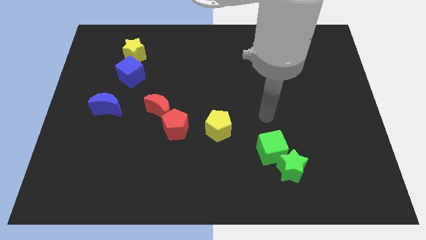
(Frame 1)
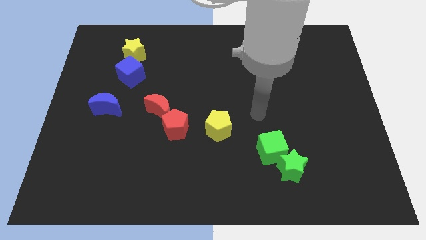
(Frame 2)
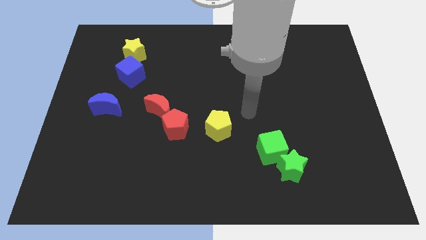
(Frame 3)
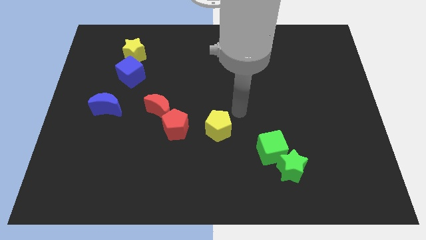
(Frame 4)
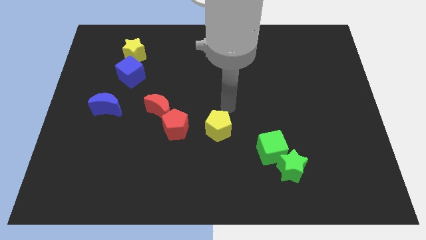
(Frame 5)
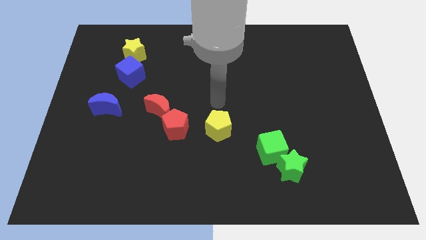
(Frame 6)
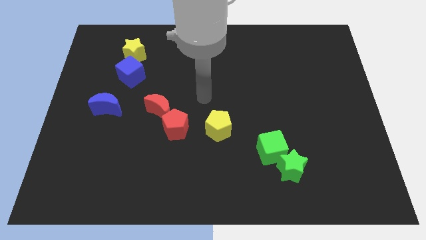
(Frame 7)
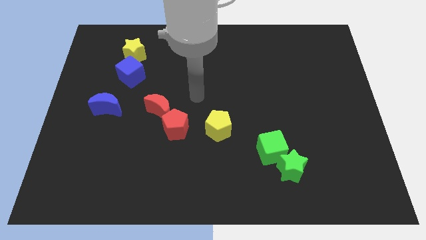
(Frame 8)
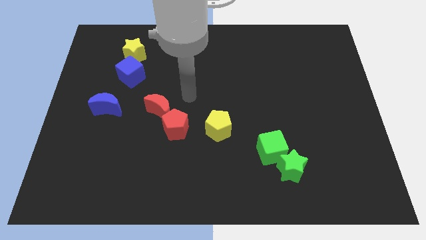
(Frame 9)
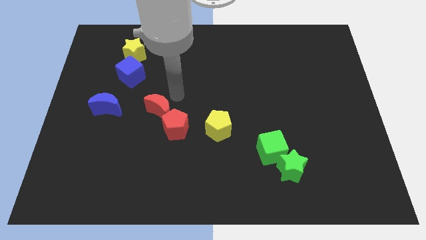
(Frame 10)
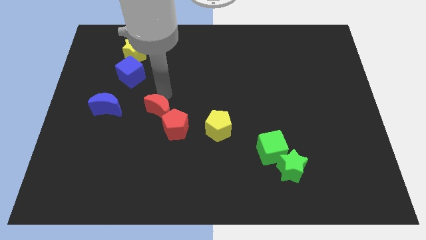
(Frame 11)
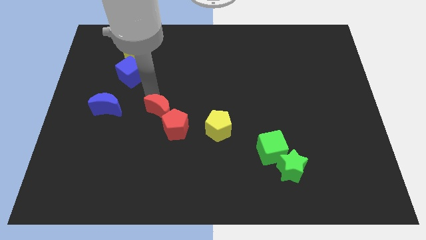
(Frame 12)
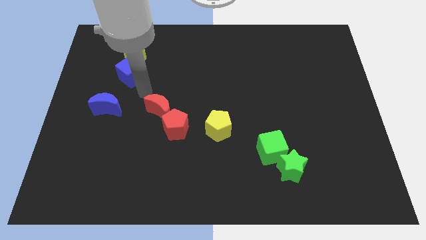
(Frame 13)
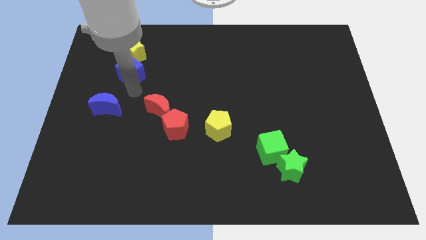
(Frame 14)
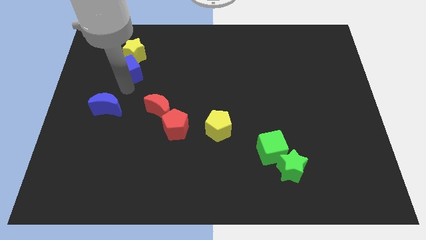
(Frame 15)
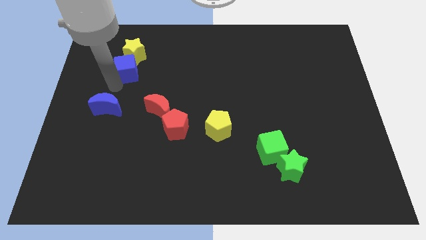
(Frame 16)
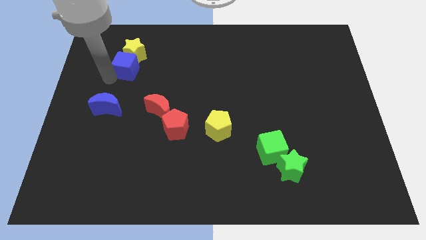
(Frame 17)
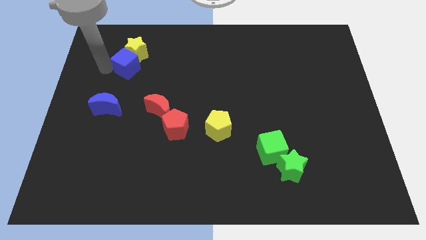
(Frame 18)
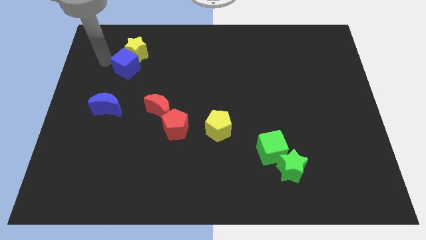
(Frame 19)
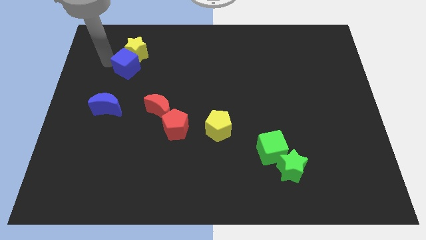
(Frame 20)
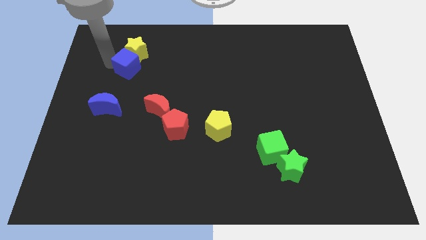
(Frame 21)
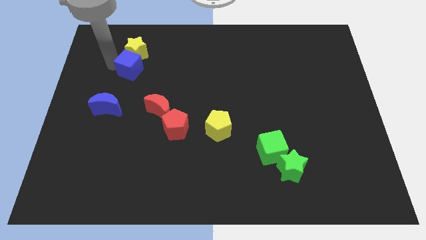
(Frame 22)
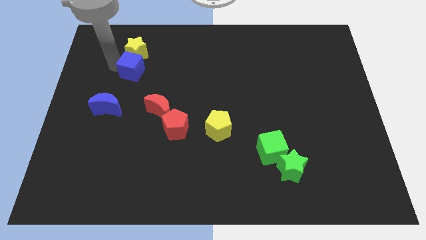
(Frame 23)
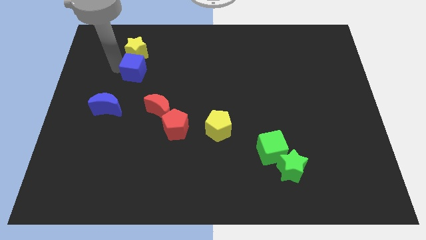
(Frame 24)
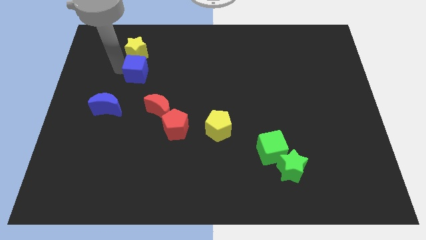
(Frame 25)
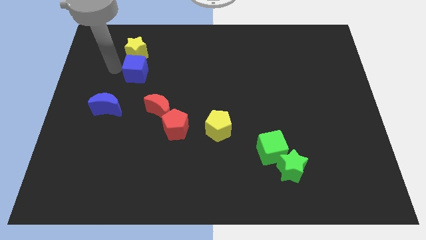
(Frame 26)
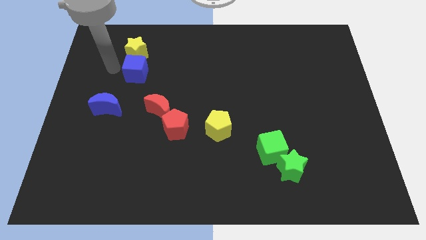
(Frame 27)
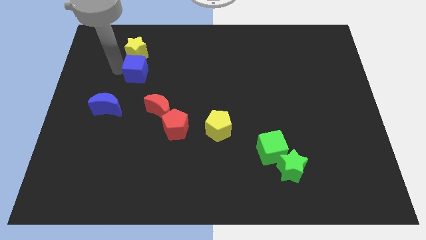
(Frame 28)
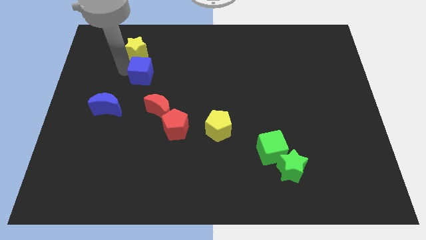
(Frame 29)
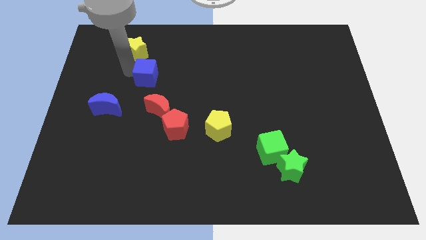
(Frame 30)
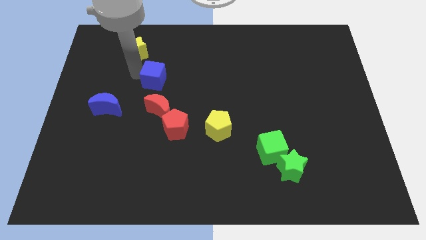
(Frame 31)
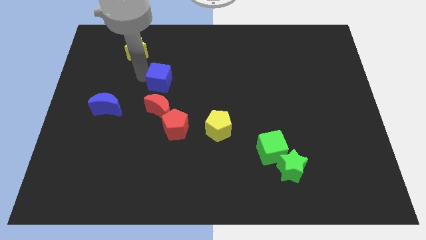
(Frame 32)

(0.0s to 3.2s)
push the blue cube right a little

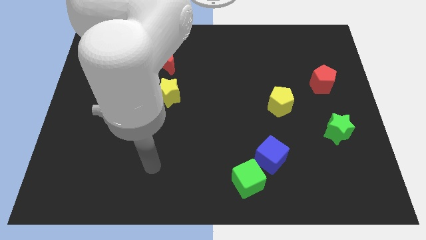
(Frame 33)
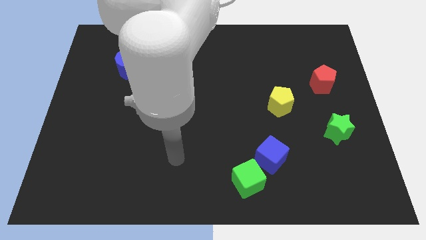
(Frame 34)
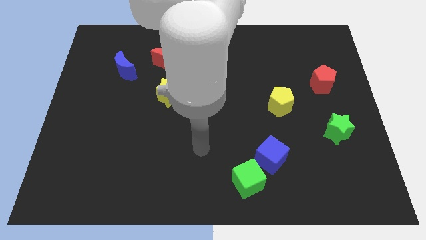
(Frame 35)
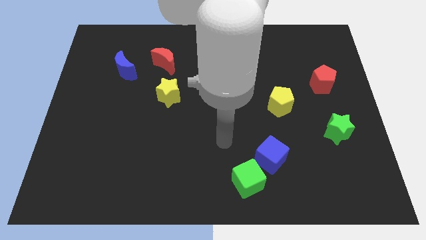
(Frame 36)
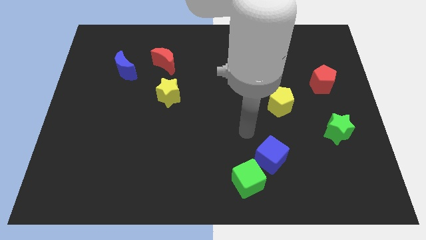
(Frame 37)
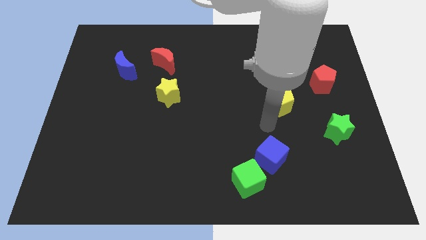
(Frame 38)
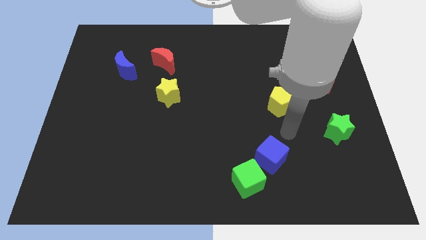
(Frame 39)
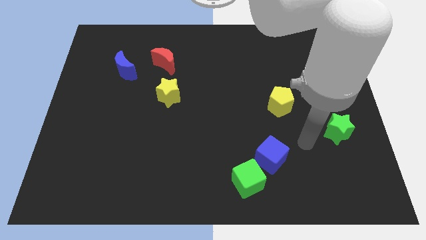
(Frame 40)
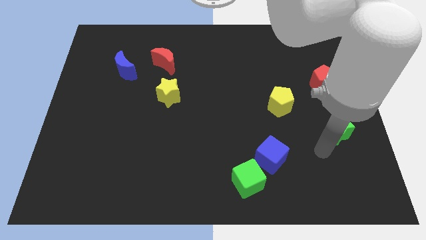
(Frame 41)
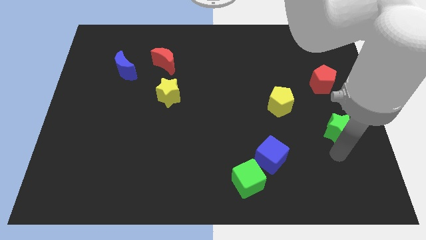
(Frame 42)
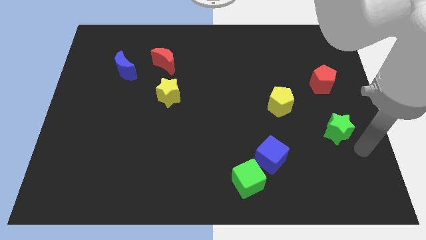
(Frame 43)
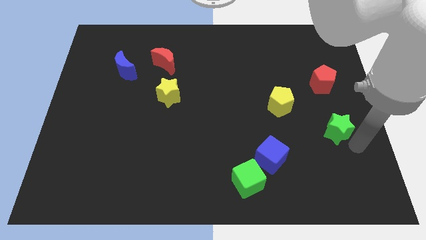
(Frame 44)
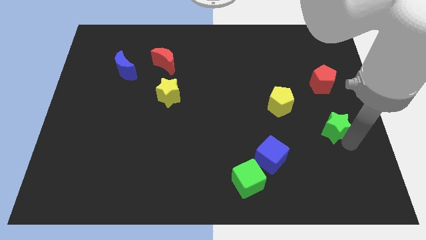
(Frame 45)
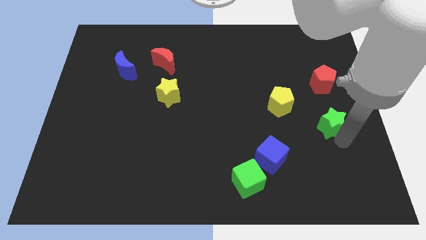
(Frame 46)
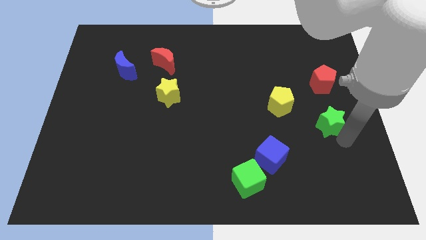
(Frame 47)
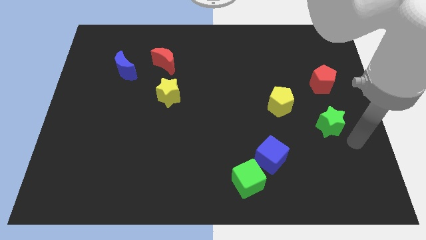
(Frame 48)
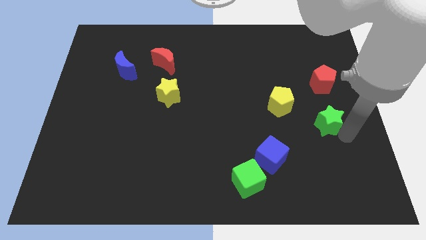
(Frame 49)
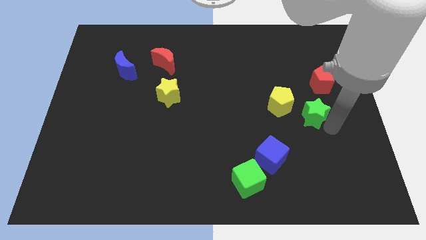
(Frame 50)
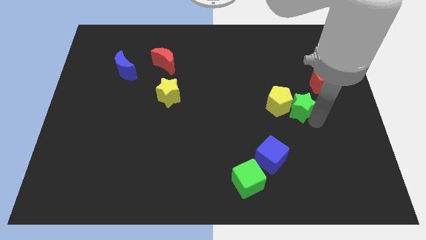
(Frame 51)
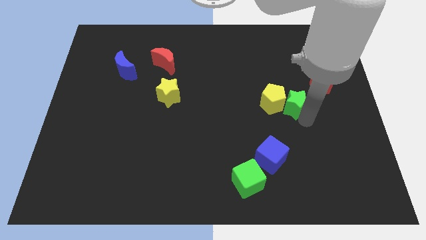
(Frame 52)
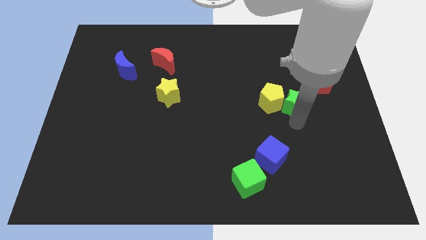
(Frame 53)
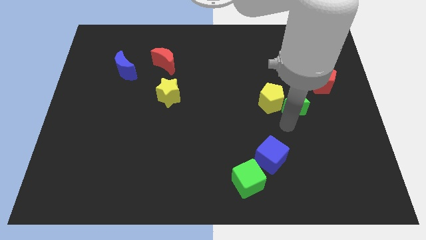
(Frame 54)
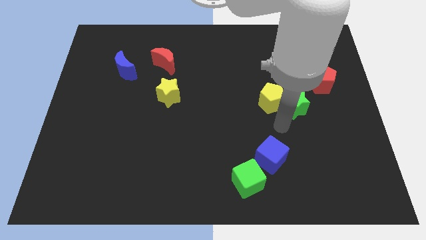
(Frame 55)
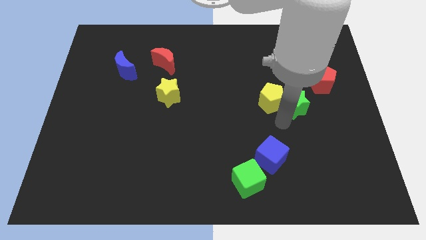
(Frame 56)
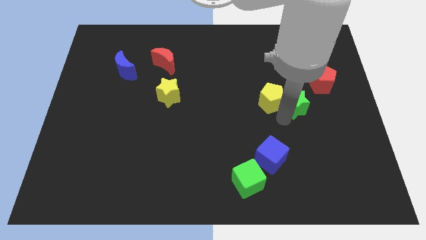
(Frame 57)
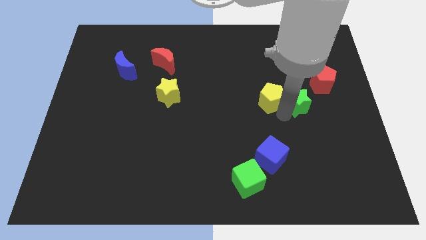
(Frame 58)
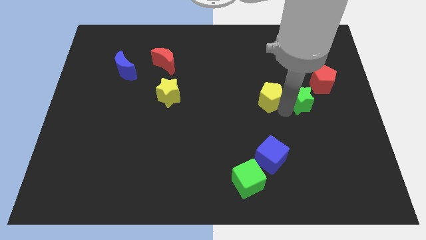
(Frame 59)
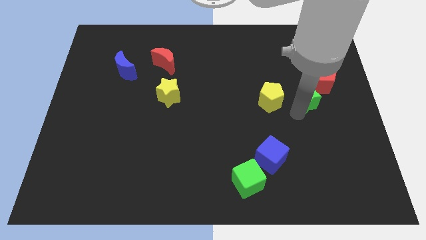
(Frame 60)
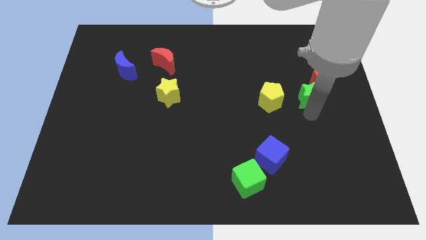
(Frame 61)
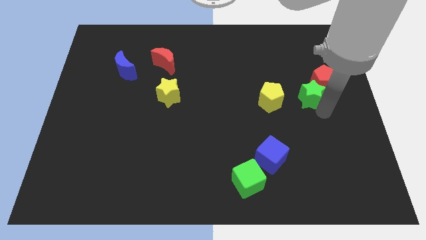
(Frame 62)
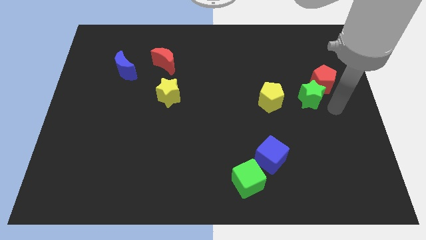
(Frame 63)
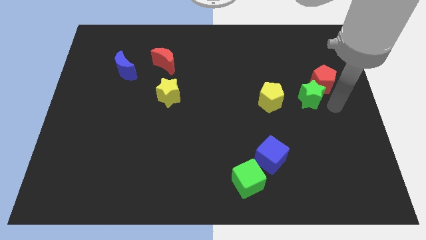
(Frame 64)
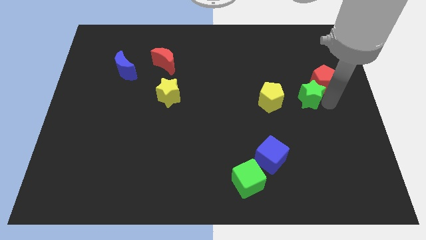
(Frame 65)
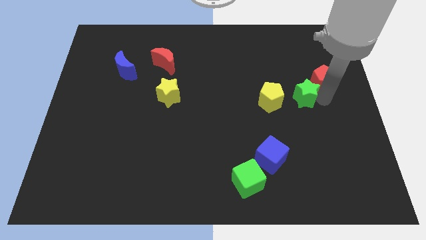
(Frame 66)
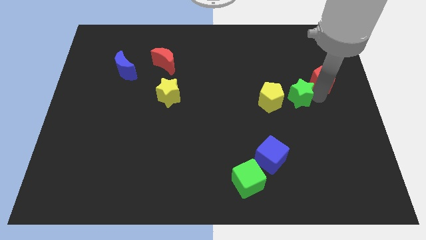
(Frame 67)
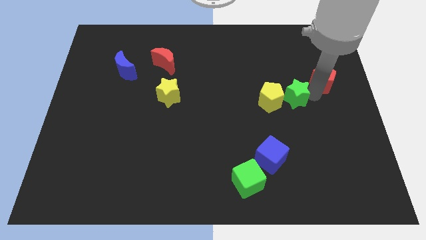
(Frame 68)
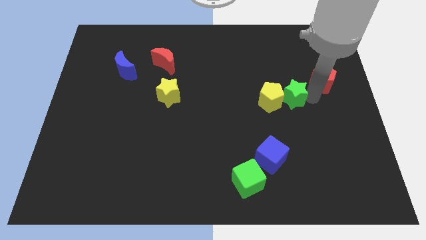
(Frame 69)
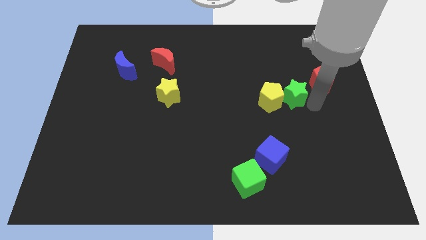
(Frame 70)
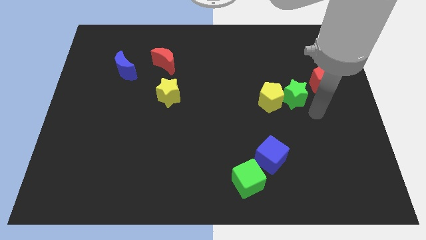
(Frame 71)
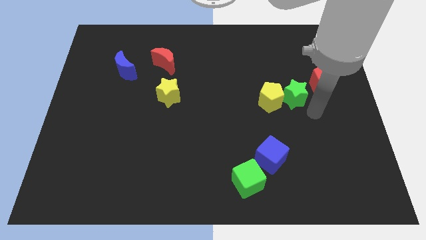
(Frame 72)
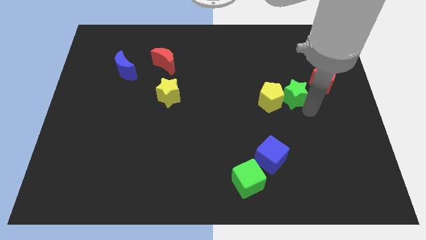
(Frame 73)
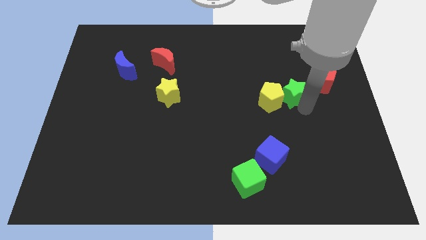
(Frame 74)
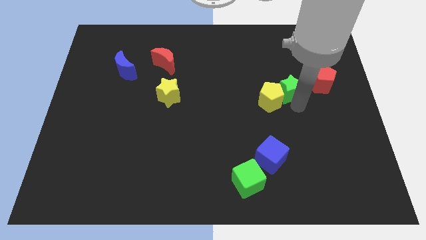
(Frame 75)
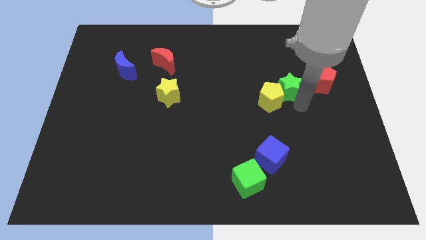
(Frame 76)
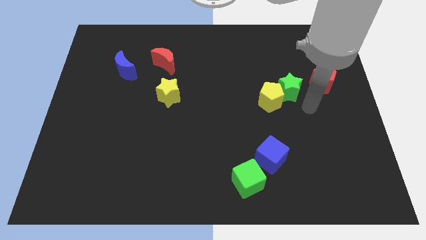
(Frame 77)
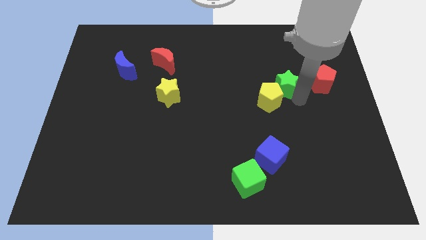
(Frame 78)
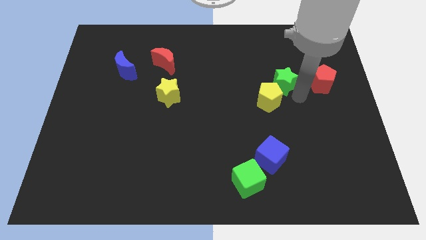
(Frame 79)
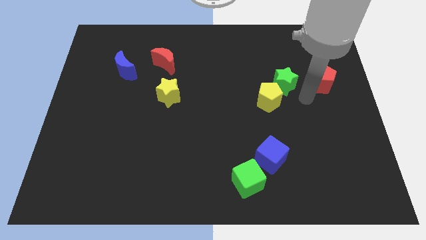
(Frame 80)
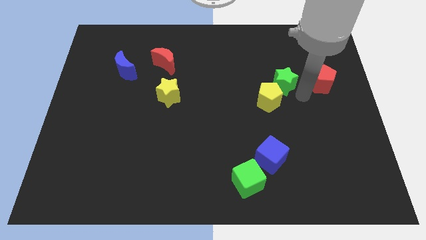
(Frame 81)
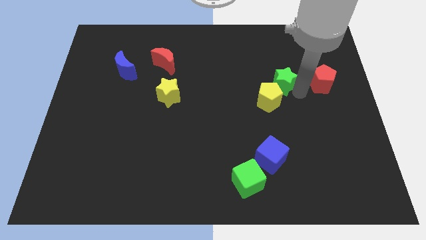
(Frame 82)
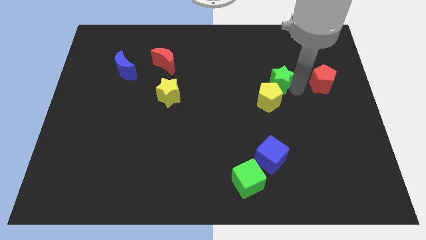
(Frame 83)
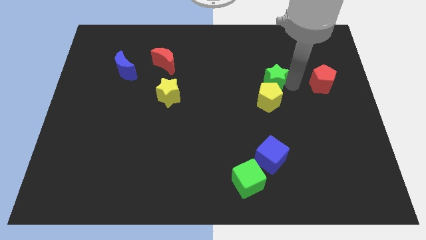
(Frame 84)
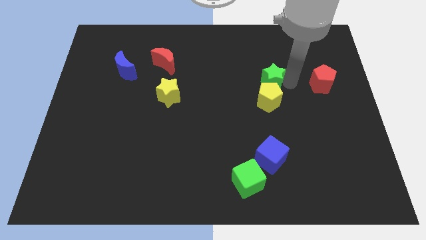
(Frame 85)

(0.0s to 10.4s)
slide the green star up and then to the left
